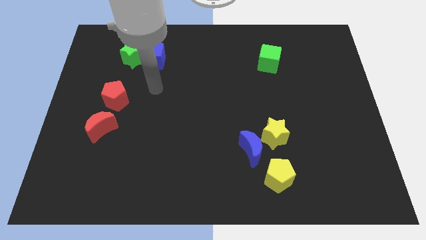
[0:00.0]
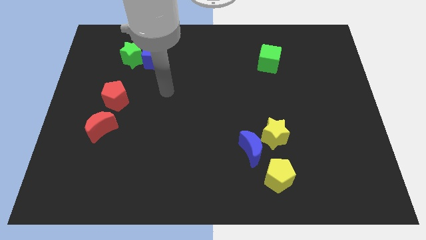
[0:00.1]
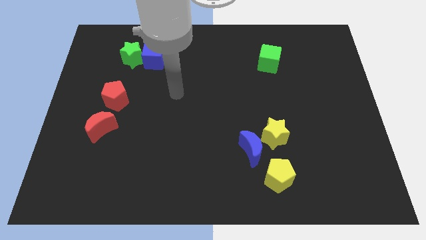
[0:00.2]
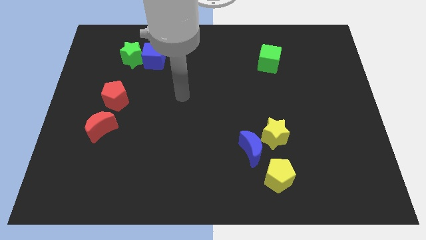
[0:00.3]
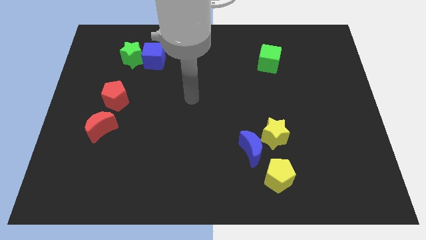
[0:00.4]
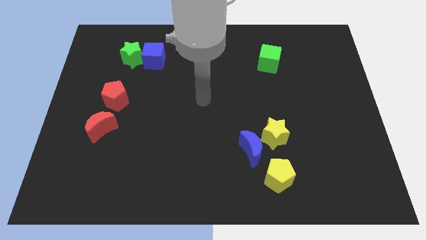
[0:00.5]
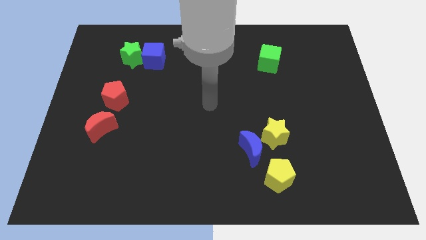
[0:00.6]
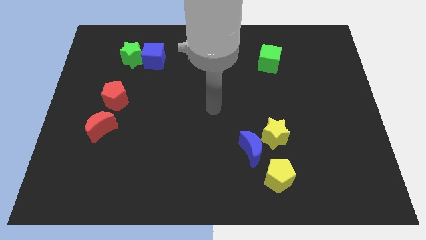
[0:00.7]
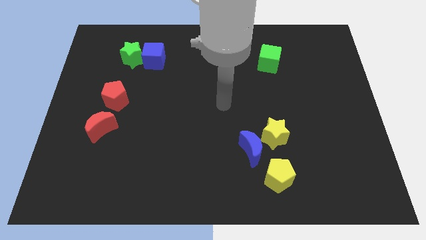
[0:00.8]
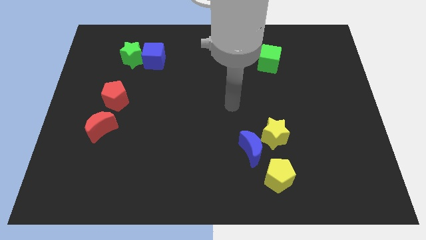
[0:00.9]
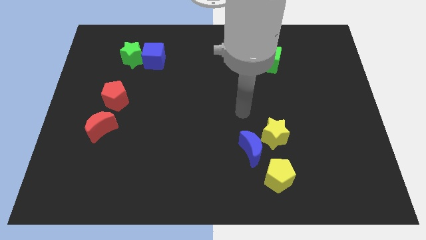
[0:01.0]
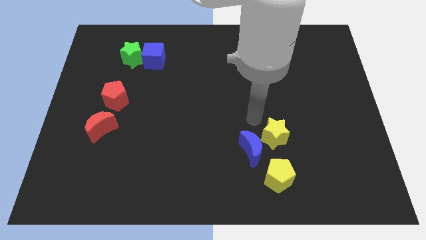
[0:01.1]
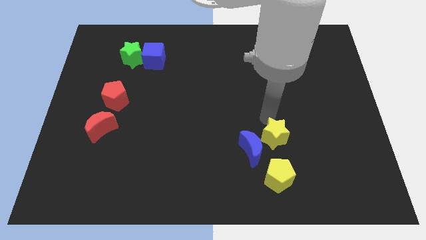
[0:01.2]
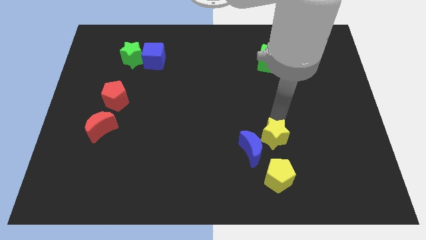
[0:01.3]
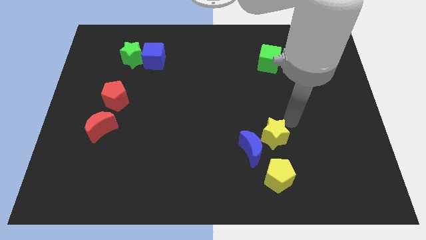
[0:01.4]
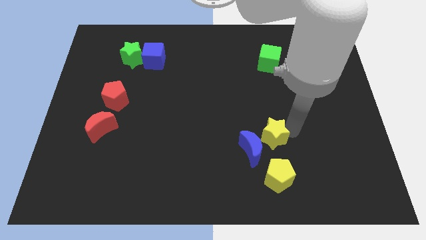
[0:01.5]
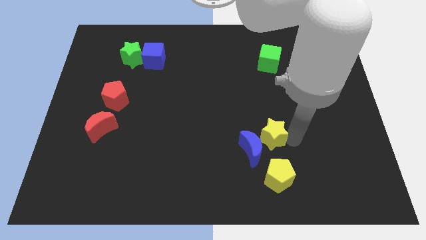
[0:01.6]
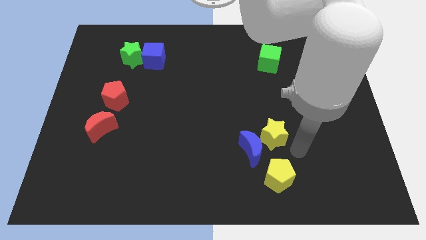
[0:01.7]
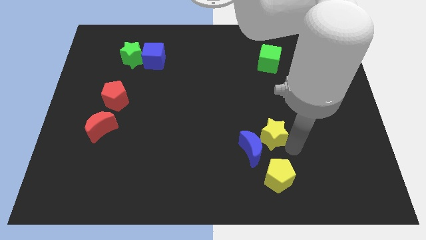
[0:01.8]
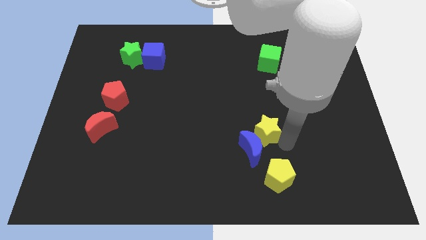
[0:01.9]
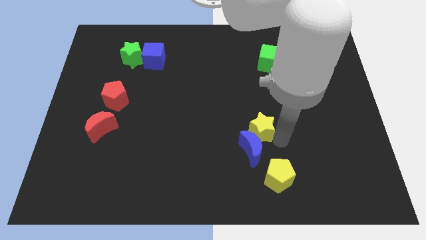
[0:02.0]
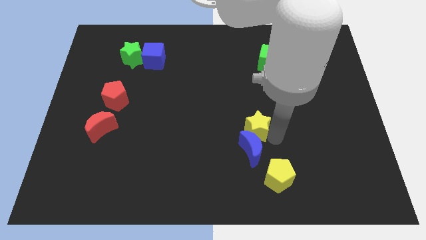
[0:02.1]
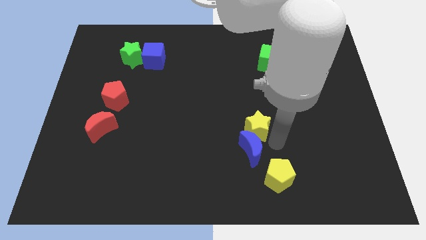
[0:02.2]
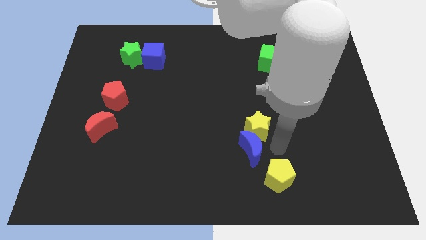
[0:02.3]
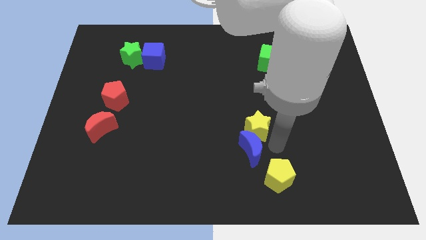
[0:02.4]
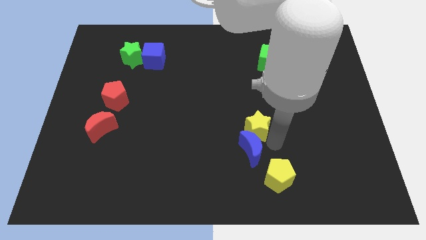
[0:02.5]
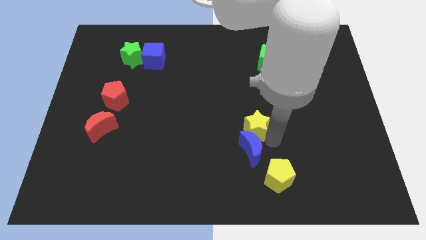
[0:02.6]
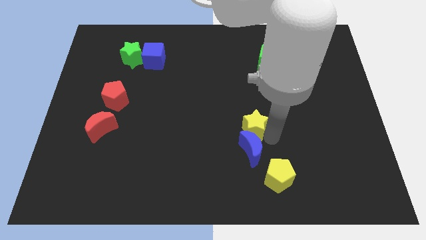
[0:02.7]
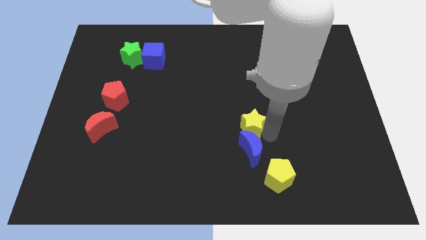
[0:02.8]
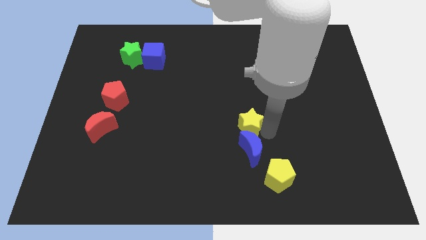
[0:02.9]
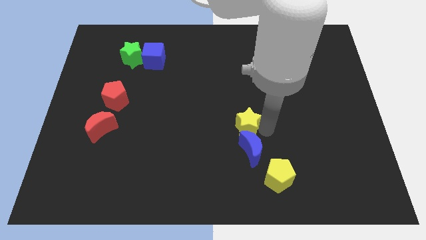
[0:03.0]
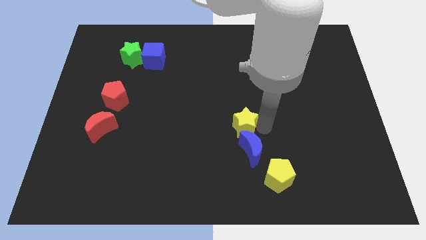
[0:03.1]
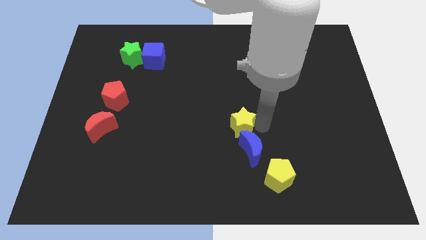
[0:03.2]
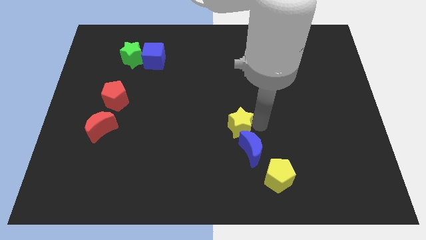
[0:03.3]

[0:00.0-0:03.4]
push the yellow star upwards and then left slightly

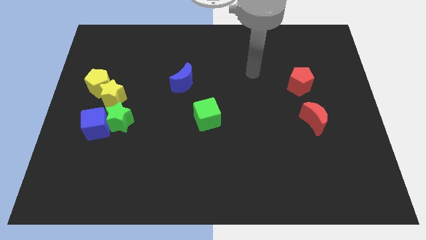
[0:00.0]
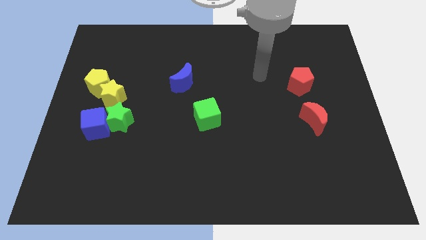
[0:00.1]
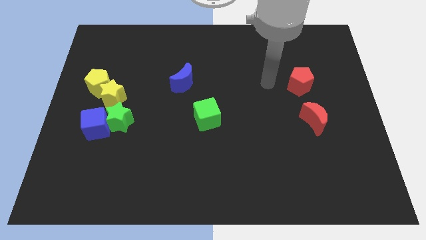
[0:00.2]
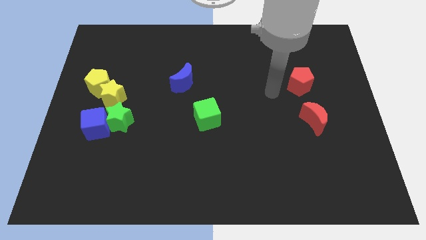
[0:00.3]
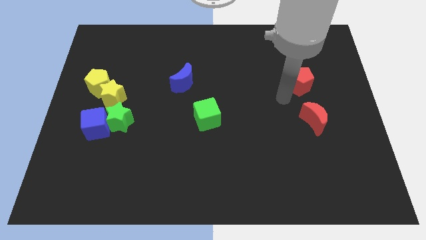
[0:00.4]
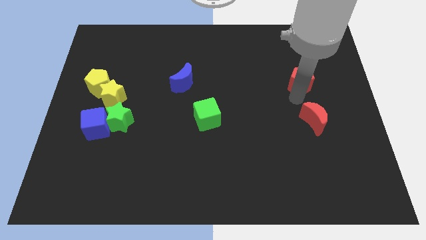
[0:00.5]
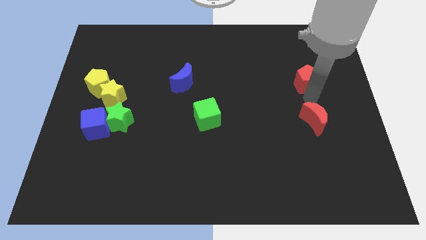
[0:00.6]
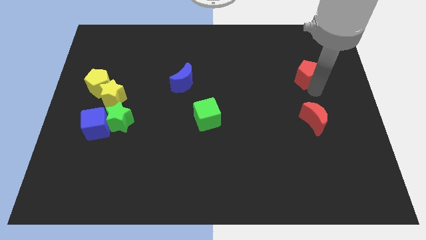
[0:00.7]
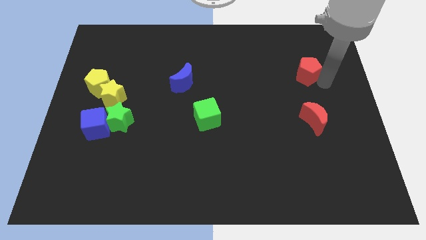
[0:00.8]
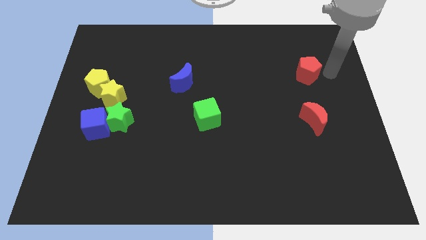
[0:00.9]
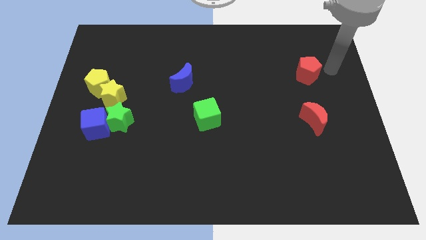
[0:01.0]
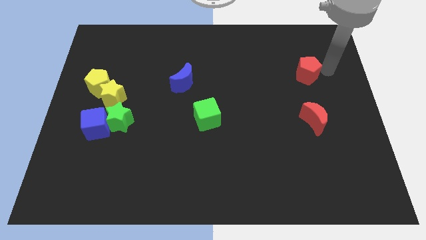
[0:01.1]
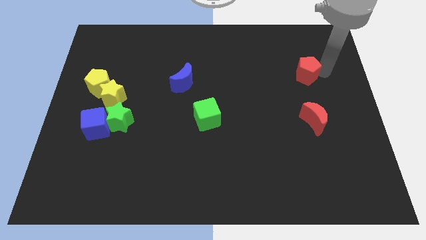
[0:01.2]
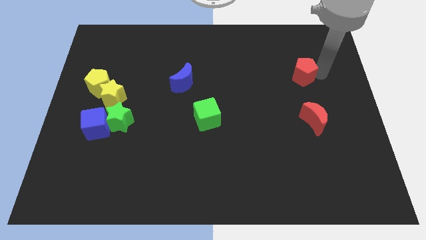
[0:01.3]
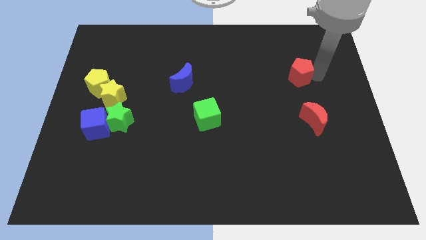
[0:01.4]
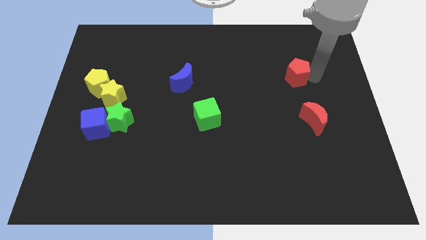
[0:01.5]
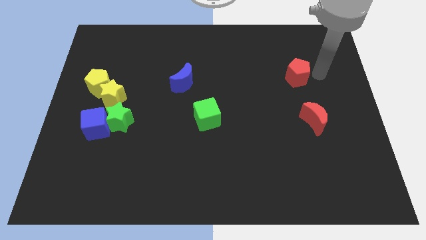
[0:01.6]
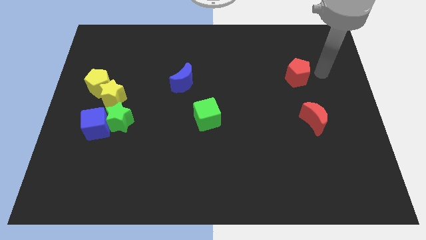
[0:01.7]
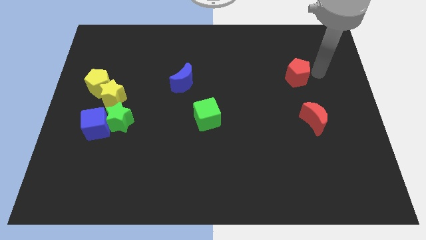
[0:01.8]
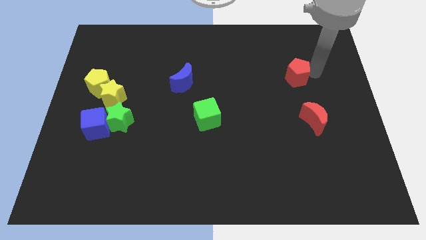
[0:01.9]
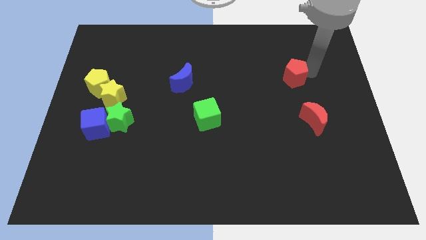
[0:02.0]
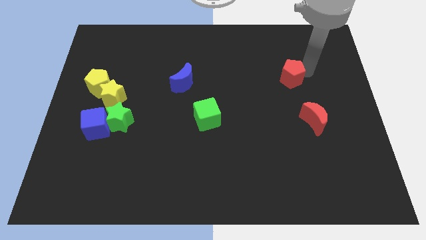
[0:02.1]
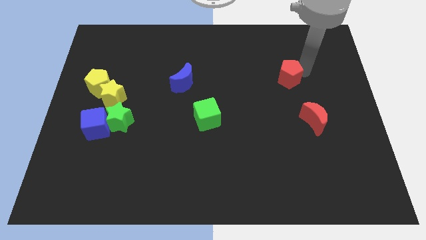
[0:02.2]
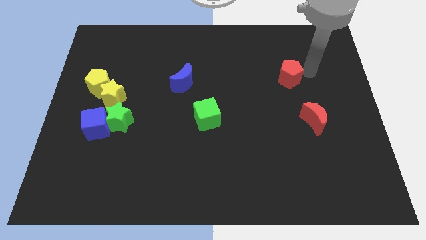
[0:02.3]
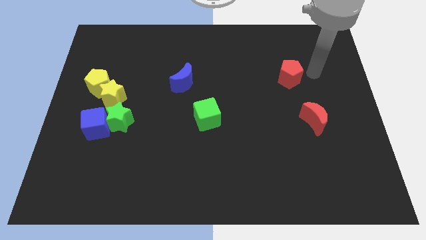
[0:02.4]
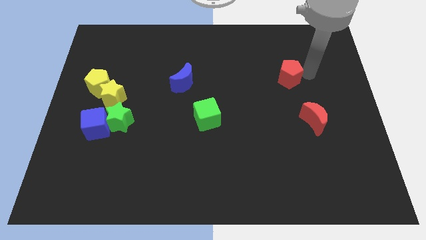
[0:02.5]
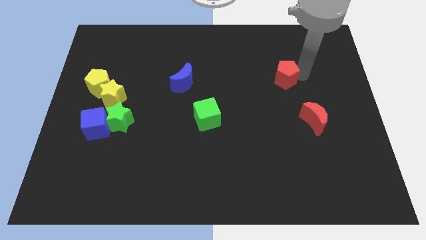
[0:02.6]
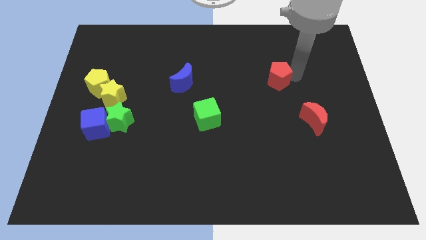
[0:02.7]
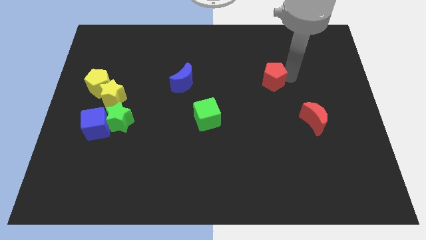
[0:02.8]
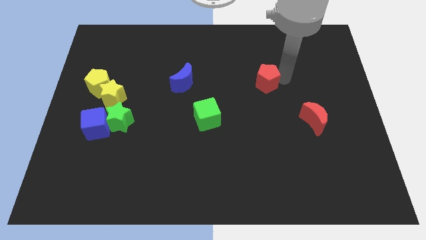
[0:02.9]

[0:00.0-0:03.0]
slightly move the red pentagon to the left

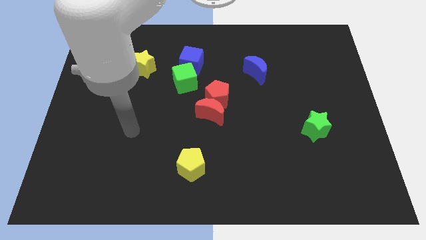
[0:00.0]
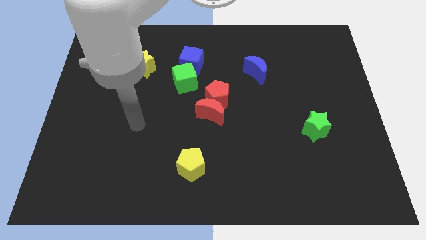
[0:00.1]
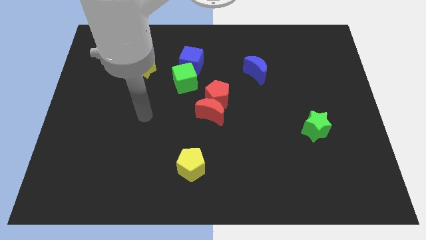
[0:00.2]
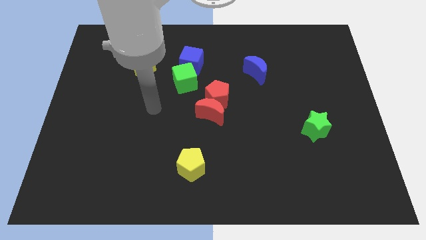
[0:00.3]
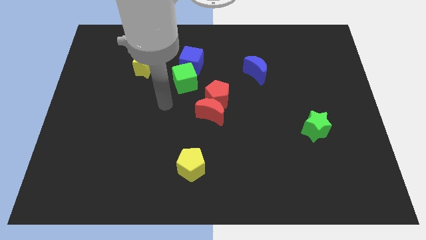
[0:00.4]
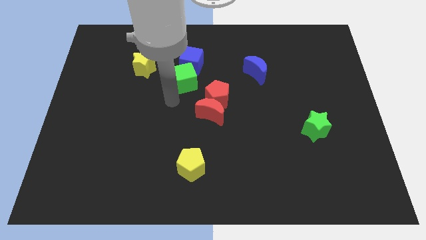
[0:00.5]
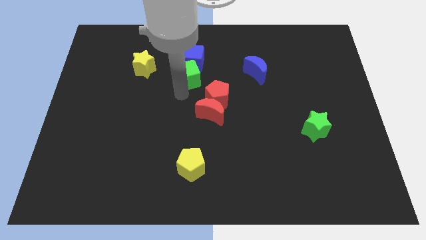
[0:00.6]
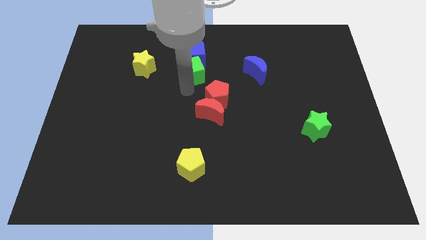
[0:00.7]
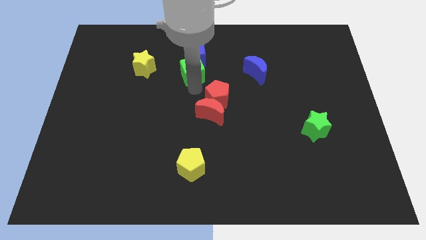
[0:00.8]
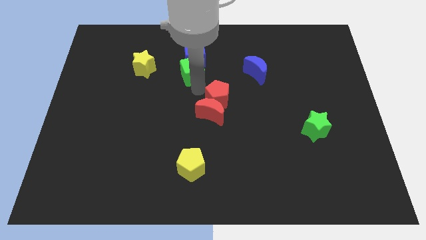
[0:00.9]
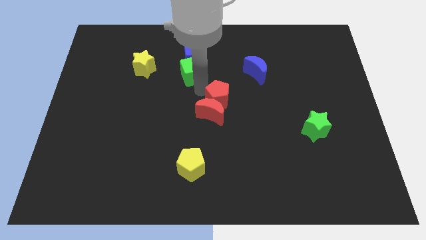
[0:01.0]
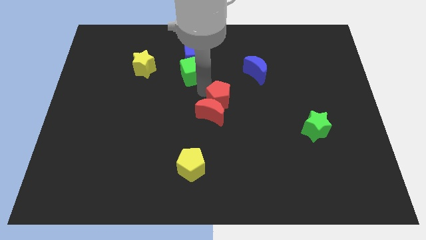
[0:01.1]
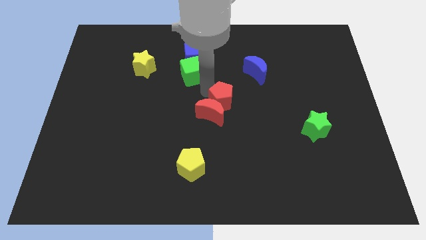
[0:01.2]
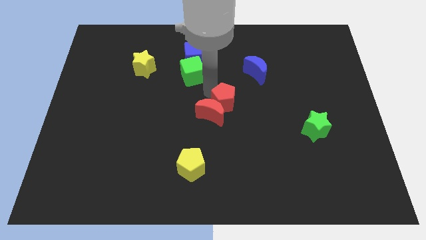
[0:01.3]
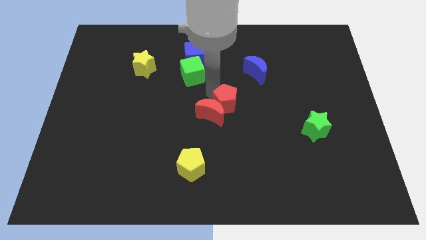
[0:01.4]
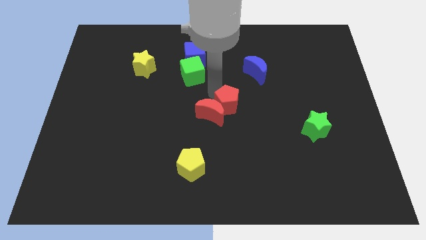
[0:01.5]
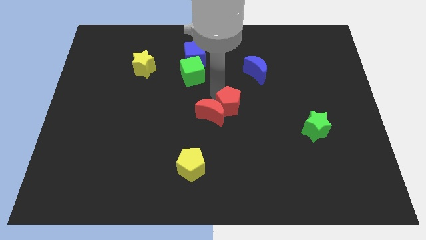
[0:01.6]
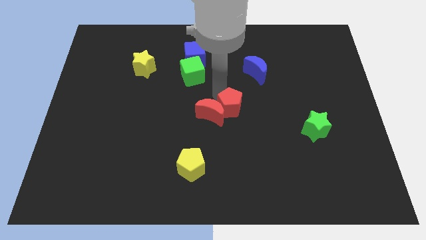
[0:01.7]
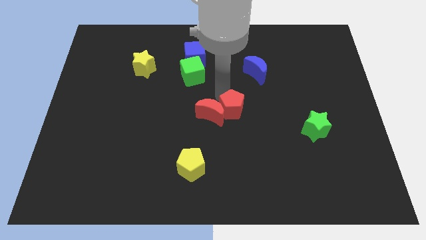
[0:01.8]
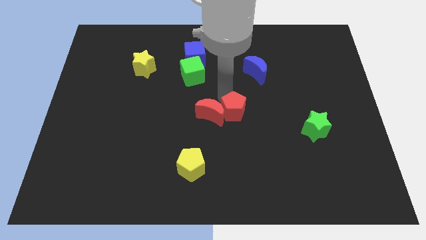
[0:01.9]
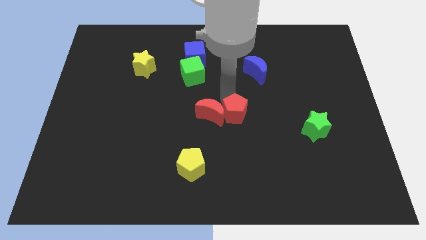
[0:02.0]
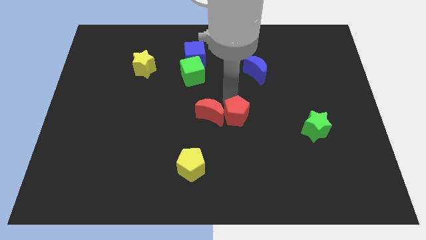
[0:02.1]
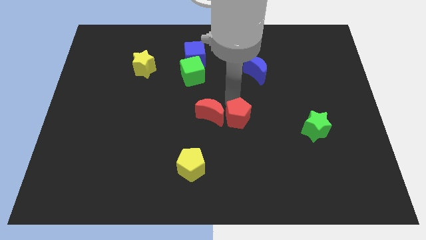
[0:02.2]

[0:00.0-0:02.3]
slide the red pentagon down and right diagonally somewhat
